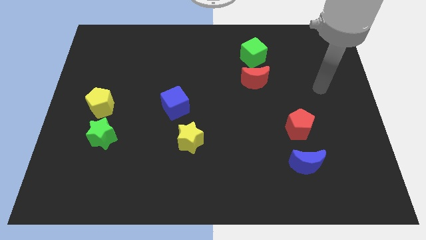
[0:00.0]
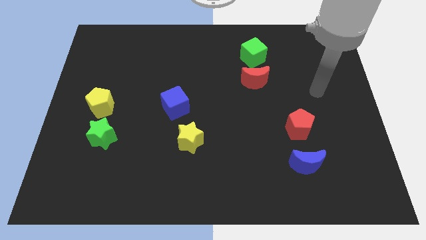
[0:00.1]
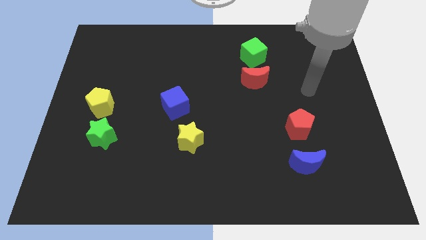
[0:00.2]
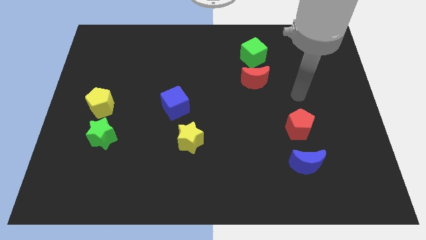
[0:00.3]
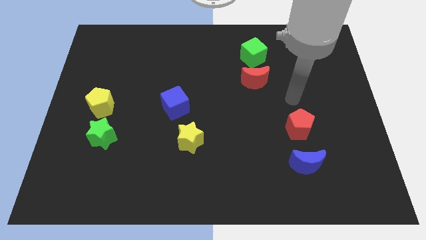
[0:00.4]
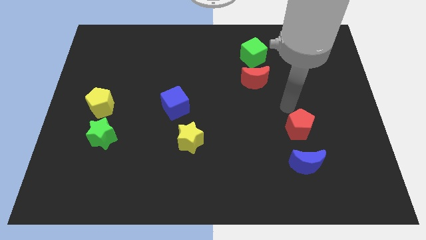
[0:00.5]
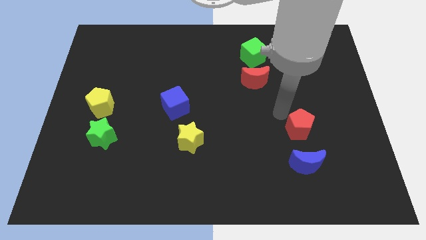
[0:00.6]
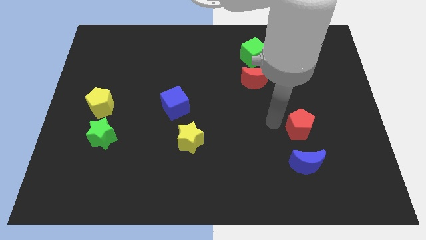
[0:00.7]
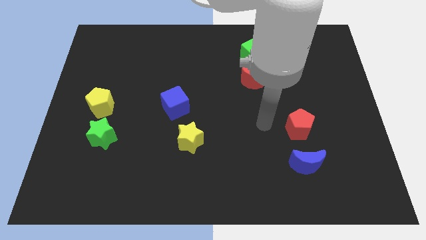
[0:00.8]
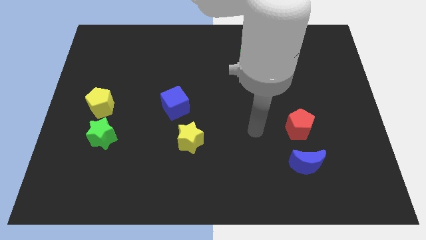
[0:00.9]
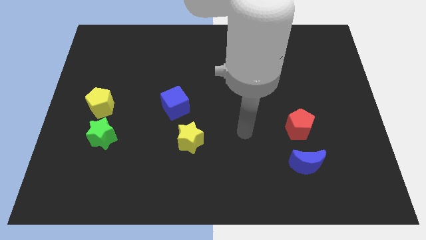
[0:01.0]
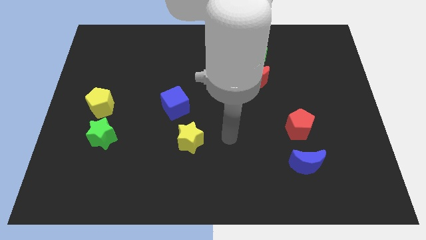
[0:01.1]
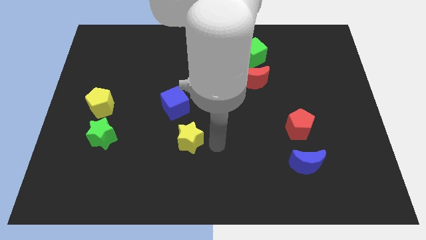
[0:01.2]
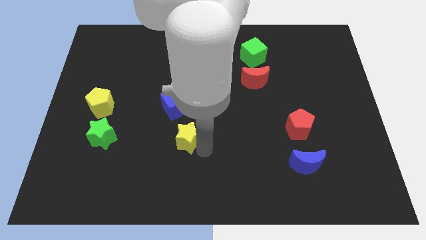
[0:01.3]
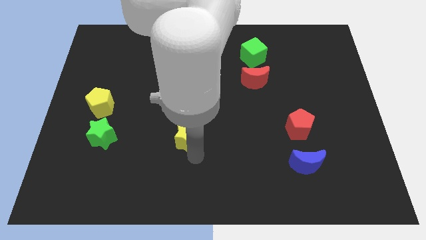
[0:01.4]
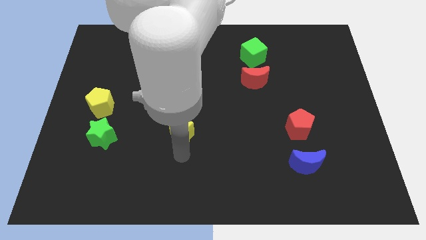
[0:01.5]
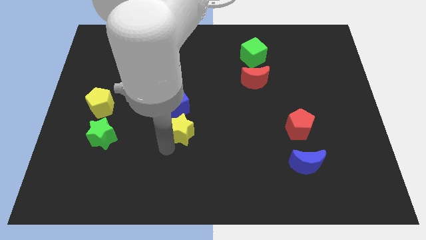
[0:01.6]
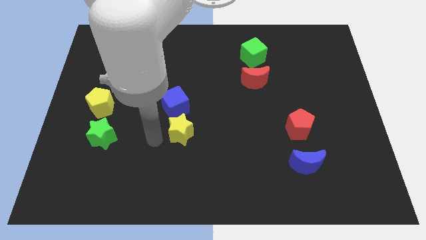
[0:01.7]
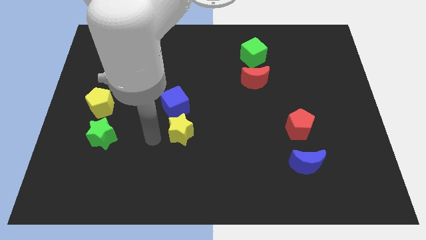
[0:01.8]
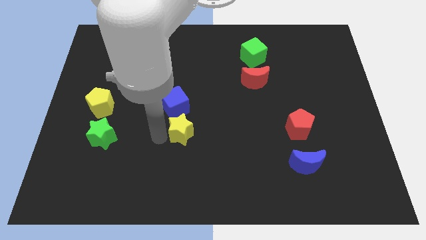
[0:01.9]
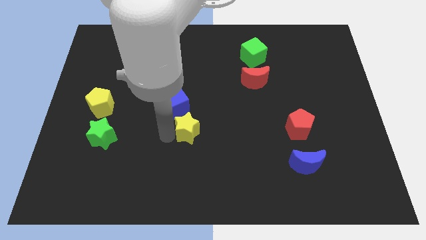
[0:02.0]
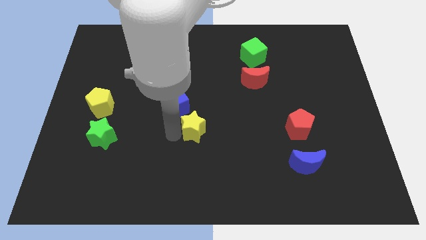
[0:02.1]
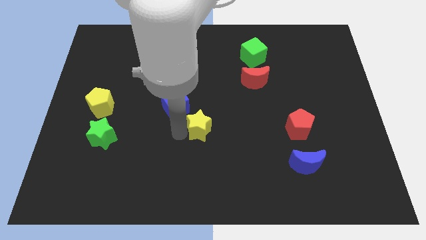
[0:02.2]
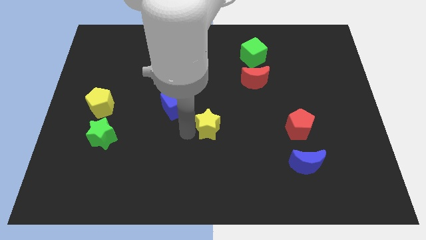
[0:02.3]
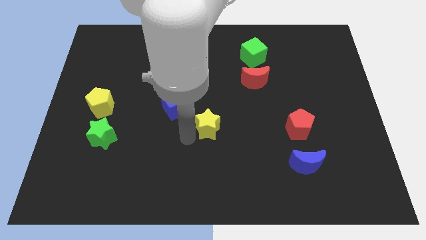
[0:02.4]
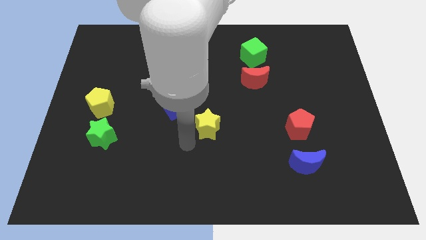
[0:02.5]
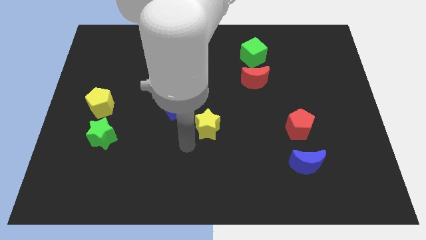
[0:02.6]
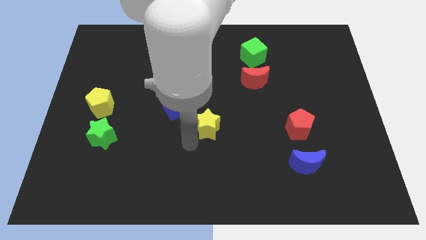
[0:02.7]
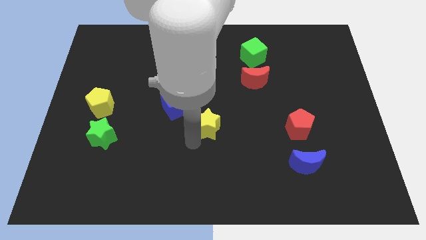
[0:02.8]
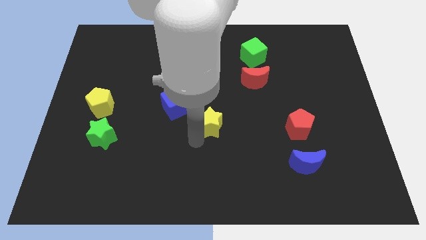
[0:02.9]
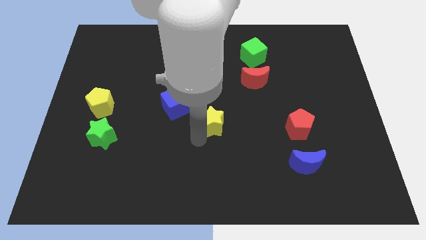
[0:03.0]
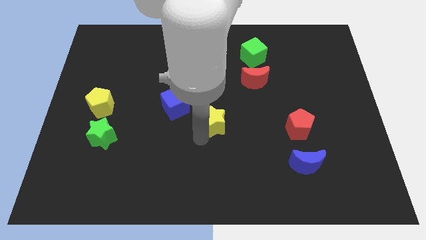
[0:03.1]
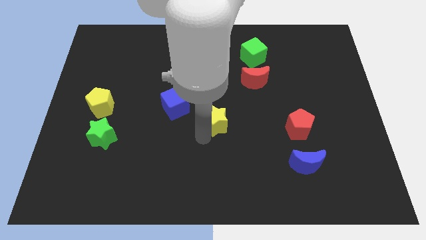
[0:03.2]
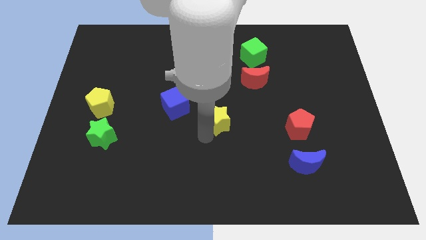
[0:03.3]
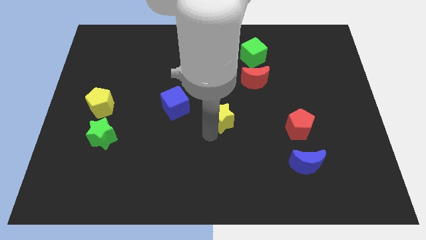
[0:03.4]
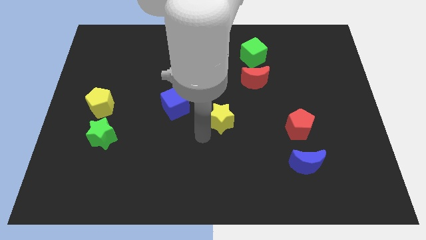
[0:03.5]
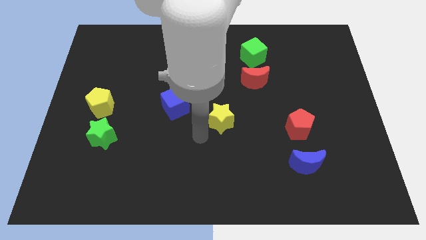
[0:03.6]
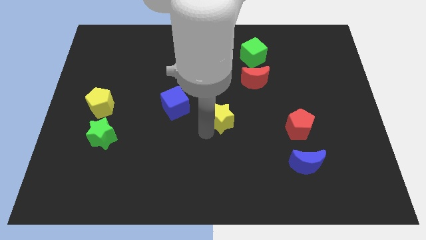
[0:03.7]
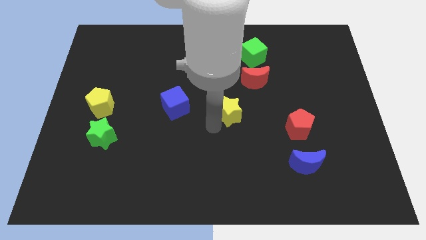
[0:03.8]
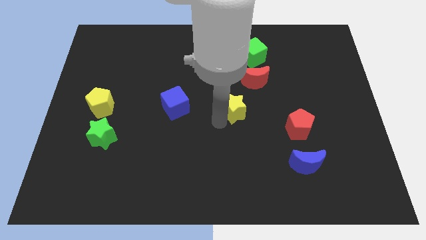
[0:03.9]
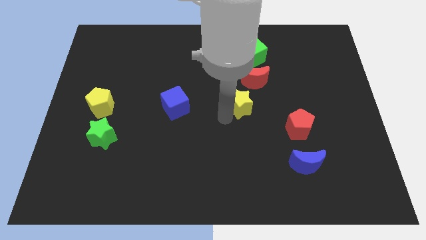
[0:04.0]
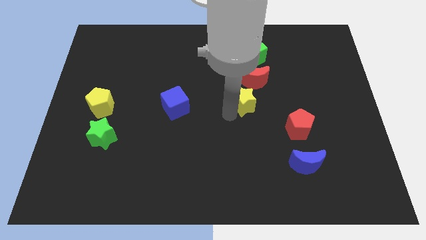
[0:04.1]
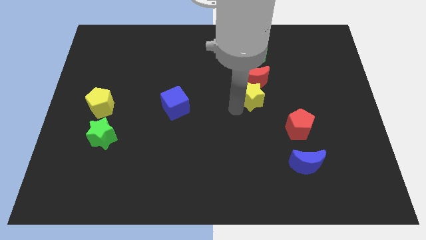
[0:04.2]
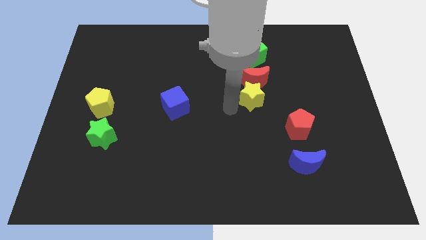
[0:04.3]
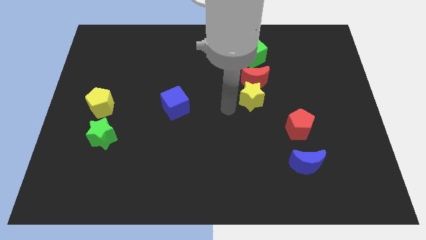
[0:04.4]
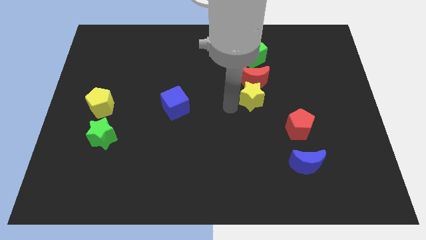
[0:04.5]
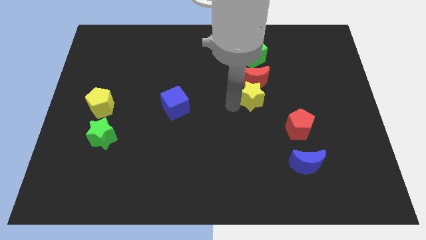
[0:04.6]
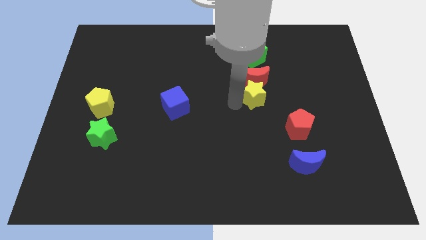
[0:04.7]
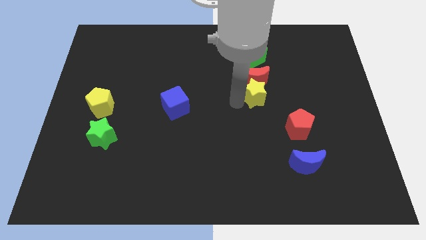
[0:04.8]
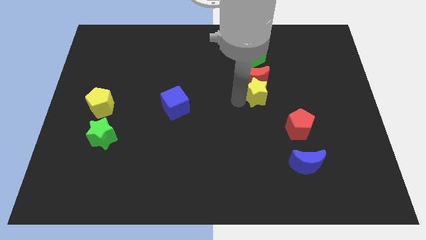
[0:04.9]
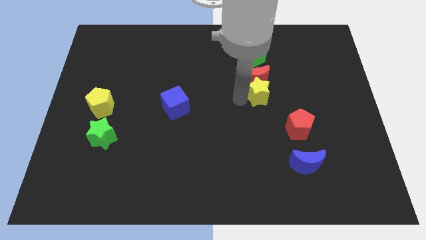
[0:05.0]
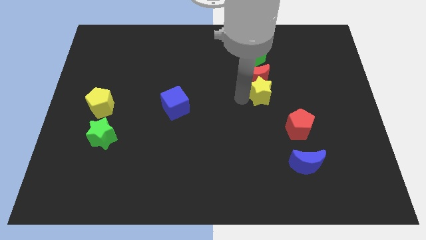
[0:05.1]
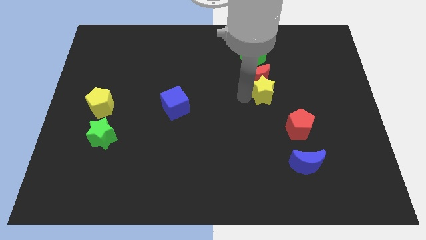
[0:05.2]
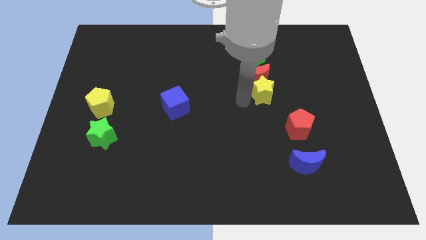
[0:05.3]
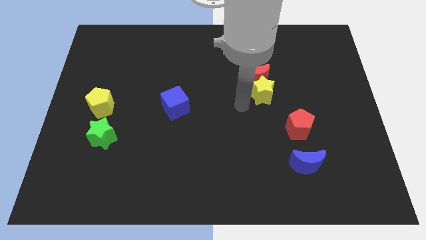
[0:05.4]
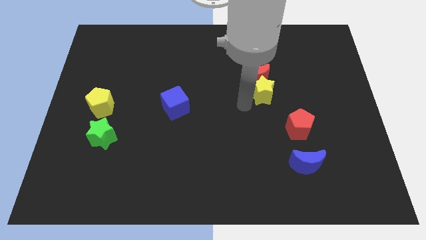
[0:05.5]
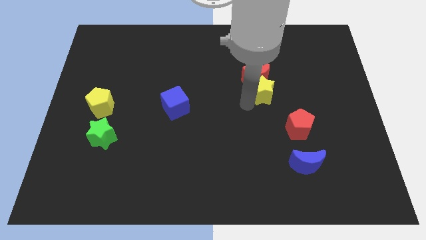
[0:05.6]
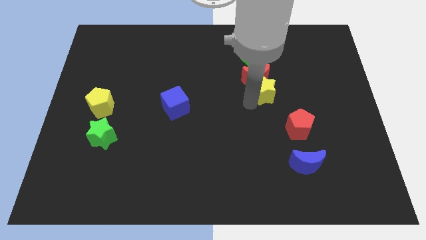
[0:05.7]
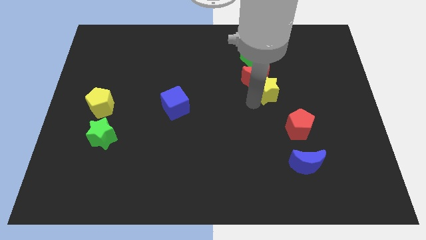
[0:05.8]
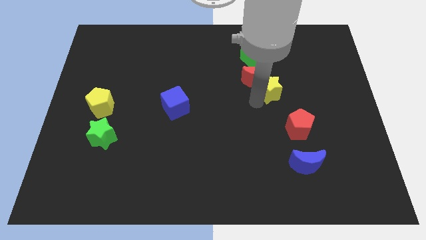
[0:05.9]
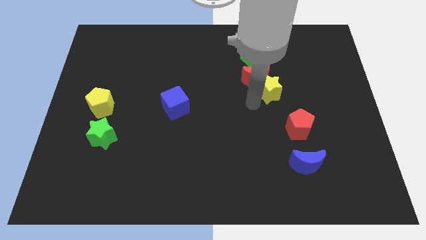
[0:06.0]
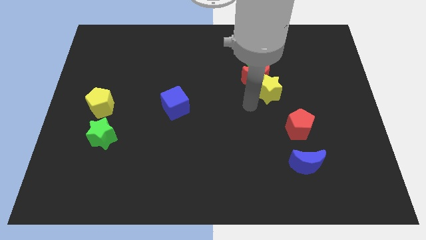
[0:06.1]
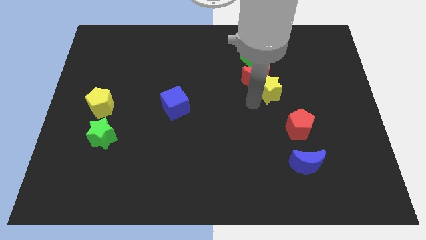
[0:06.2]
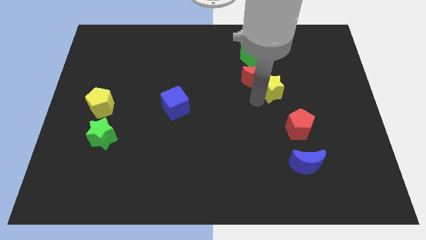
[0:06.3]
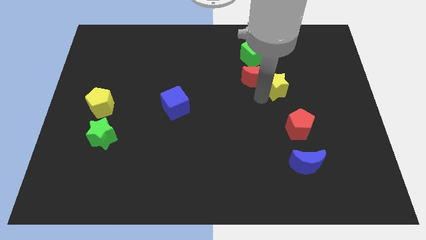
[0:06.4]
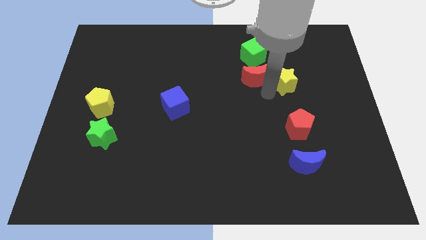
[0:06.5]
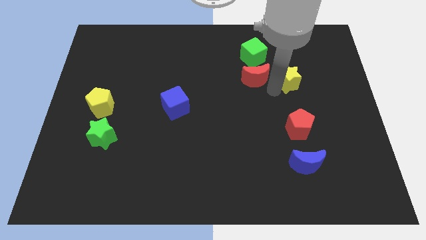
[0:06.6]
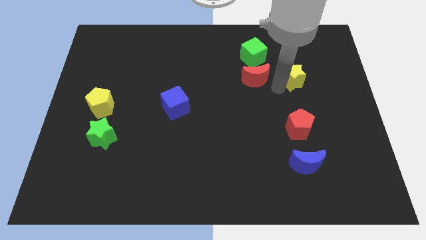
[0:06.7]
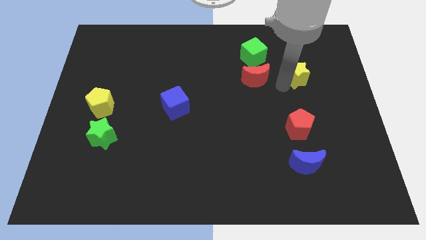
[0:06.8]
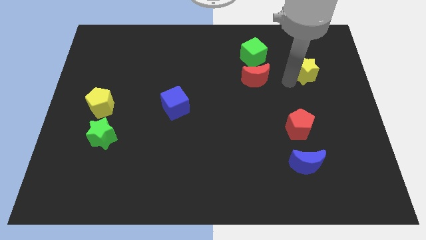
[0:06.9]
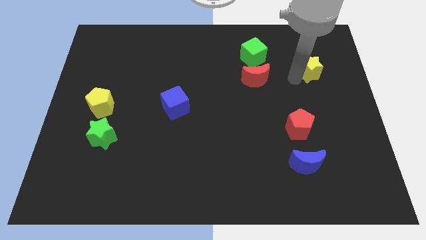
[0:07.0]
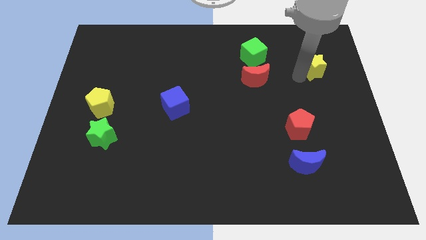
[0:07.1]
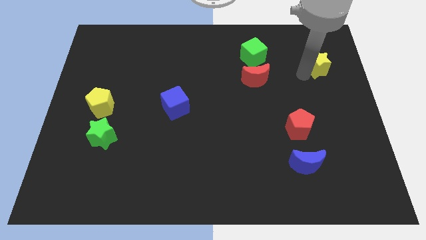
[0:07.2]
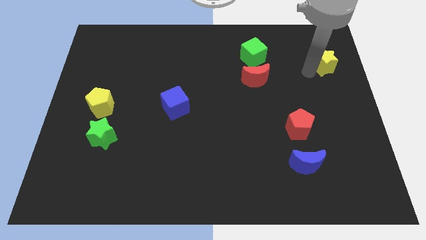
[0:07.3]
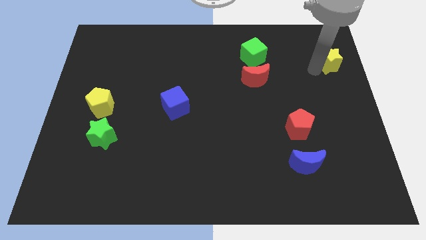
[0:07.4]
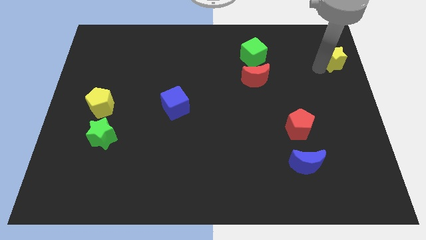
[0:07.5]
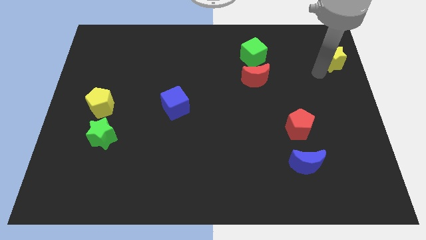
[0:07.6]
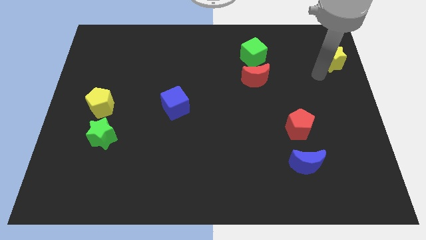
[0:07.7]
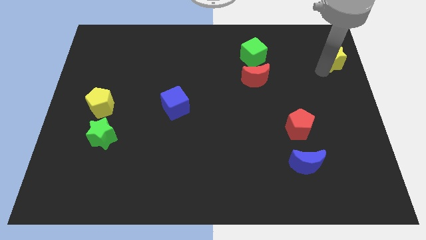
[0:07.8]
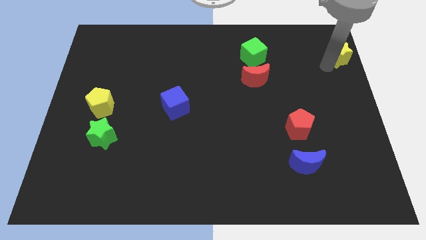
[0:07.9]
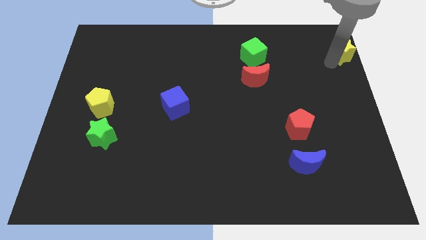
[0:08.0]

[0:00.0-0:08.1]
push the yellow star to the top right corner
